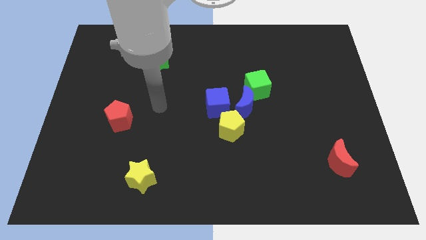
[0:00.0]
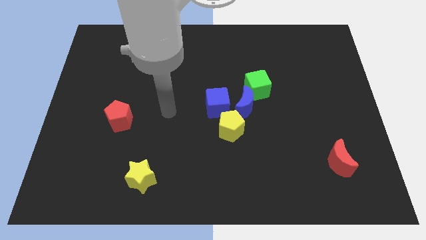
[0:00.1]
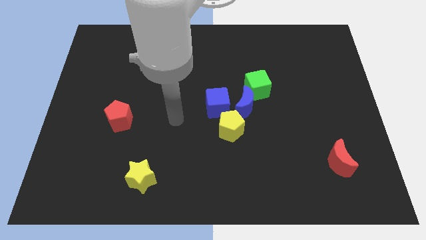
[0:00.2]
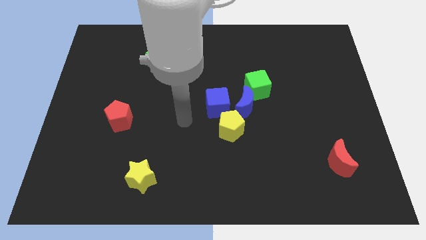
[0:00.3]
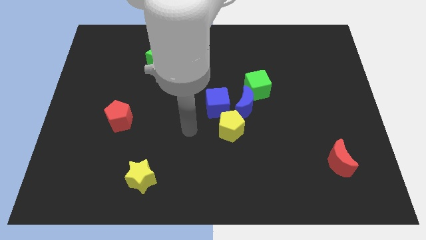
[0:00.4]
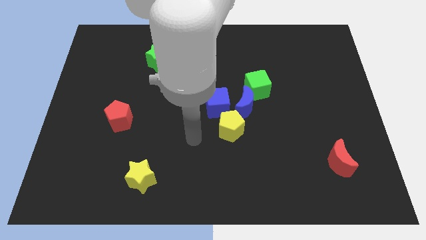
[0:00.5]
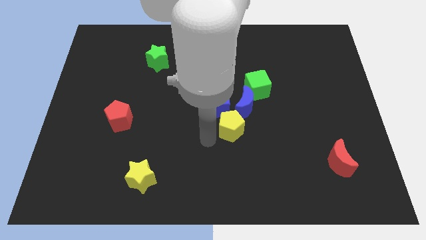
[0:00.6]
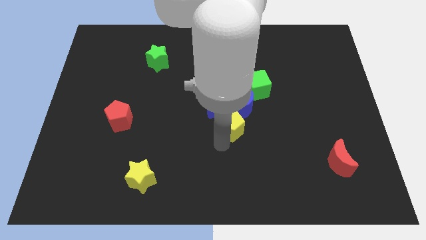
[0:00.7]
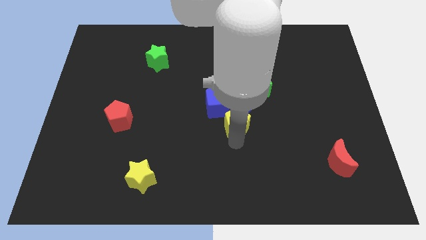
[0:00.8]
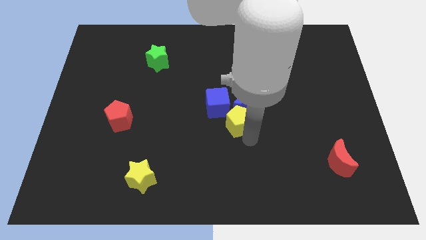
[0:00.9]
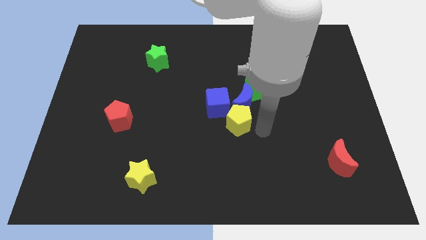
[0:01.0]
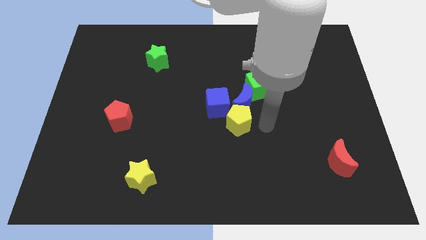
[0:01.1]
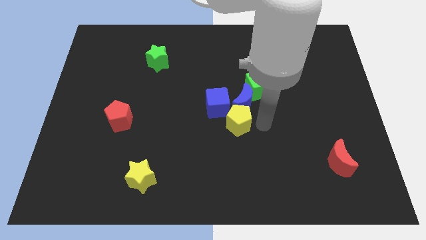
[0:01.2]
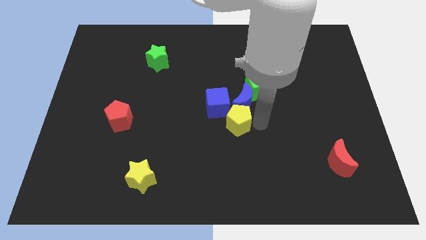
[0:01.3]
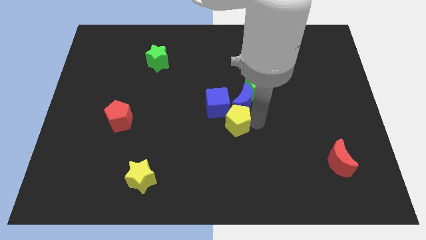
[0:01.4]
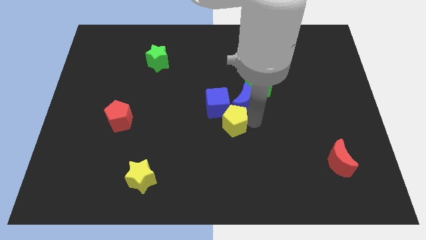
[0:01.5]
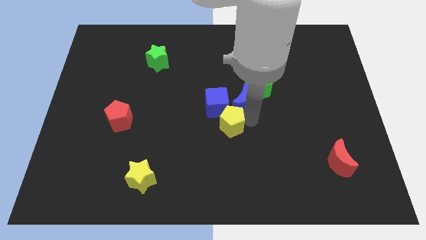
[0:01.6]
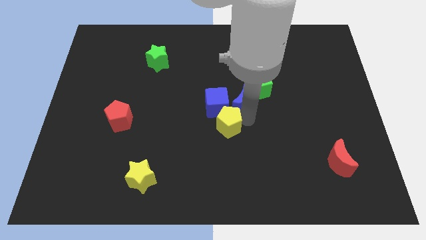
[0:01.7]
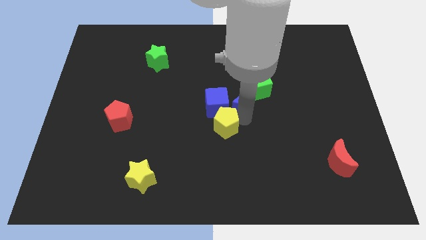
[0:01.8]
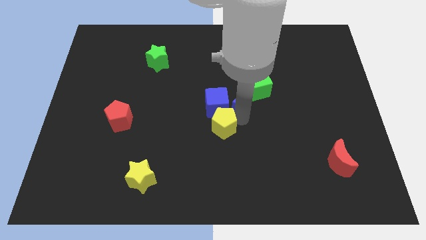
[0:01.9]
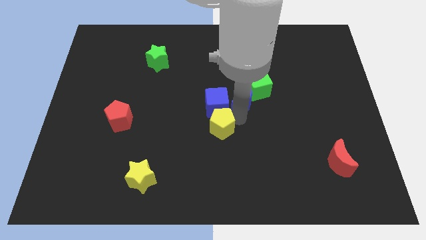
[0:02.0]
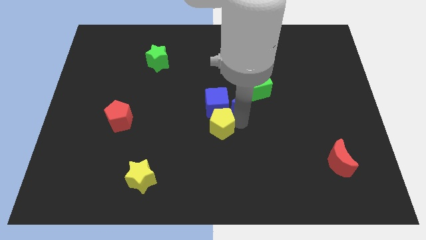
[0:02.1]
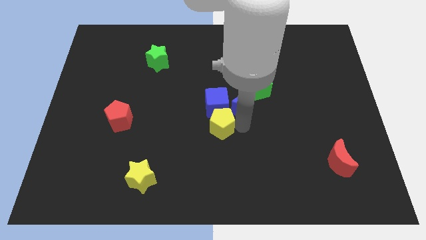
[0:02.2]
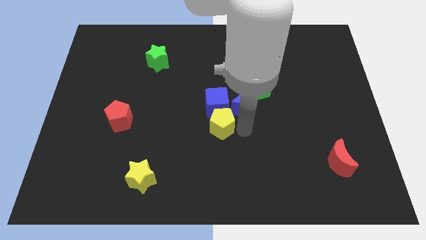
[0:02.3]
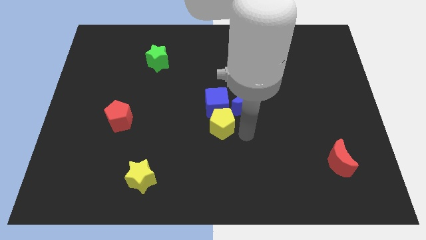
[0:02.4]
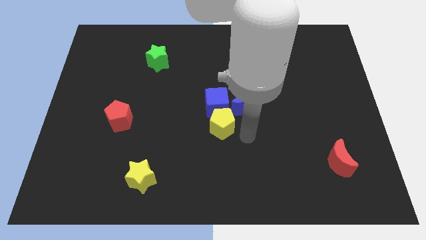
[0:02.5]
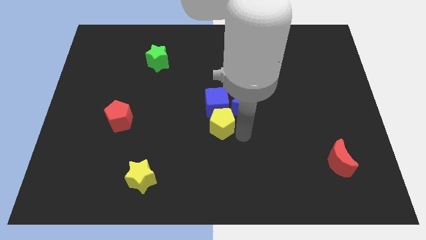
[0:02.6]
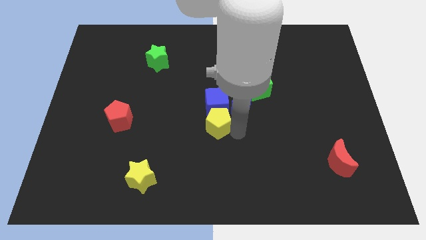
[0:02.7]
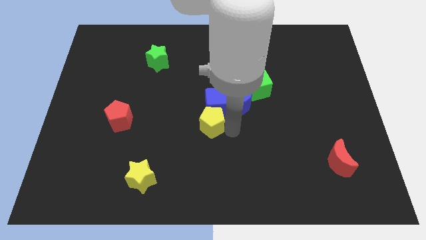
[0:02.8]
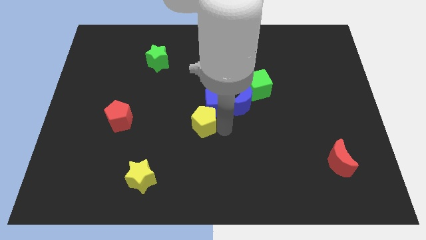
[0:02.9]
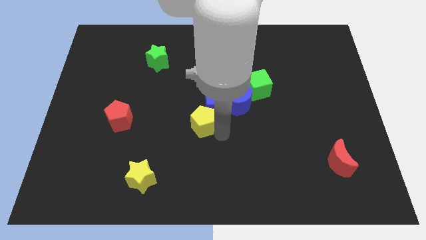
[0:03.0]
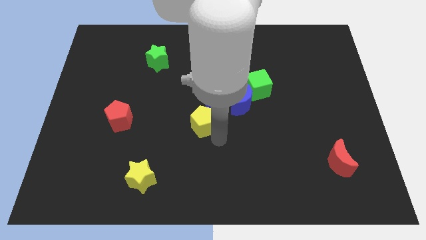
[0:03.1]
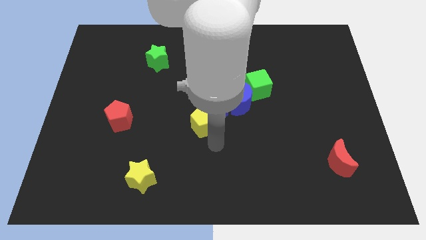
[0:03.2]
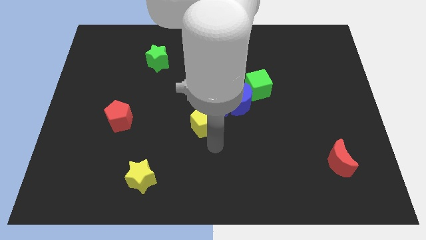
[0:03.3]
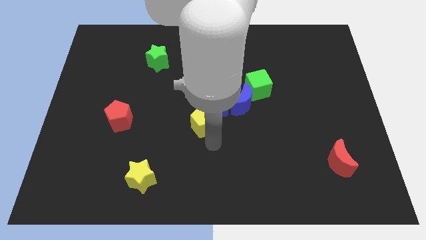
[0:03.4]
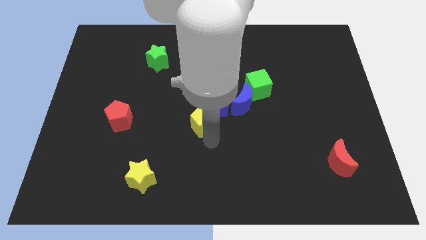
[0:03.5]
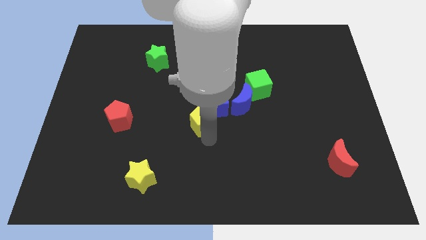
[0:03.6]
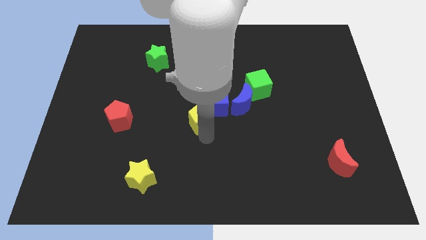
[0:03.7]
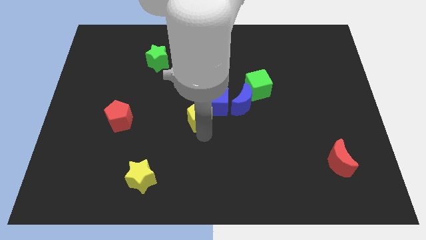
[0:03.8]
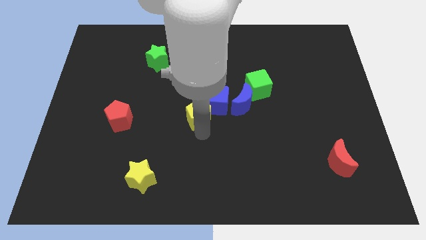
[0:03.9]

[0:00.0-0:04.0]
slightly push the yellow pentagon up and then left

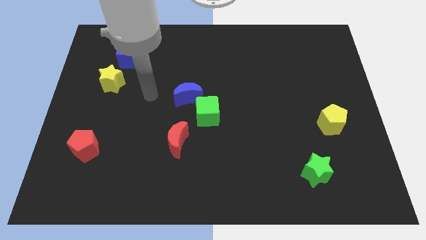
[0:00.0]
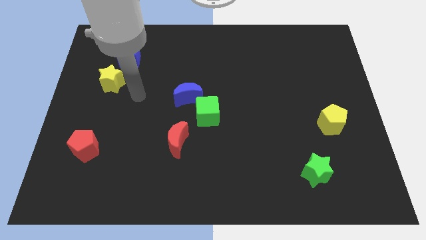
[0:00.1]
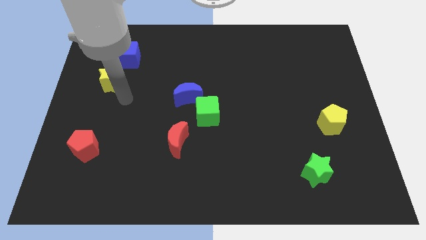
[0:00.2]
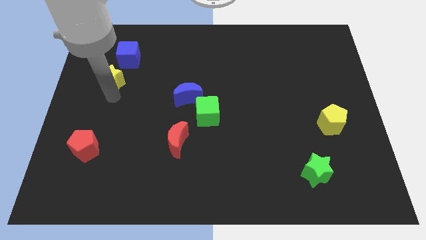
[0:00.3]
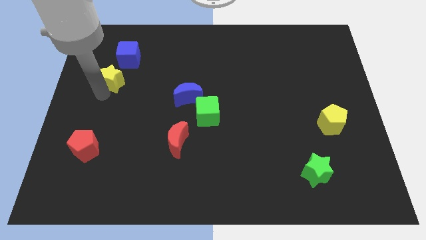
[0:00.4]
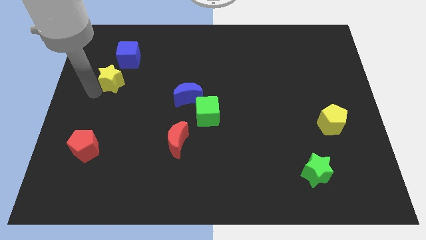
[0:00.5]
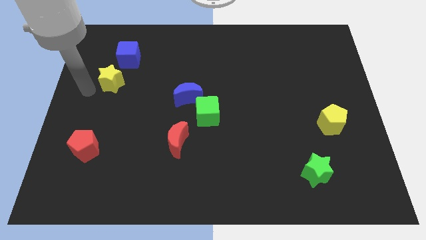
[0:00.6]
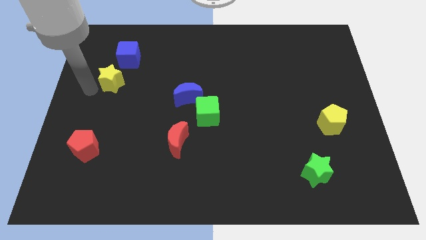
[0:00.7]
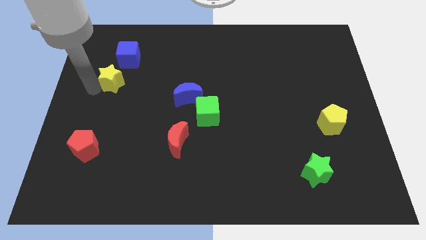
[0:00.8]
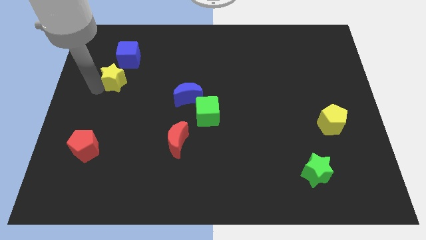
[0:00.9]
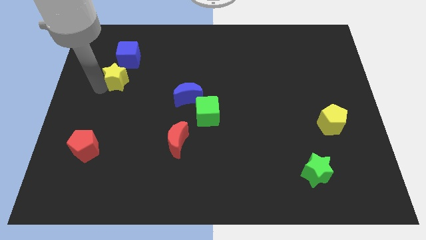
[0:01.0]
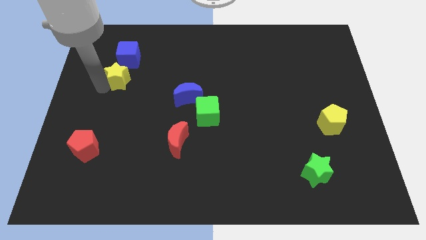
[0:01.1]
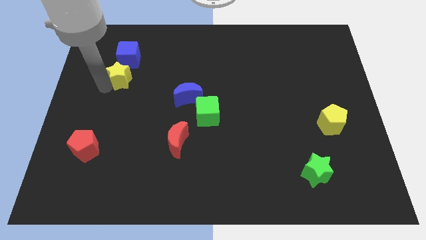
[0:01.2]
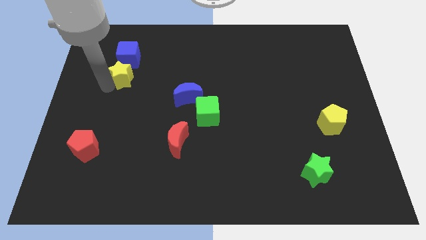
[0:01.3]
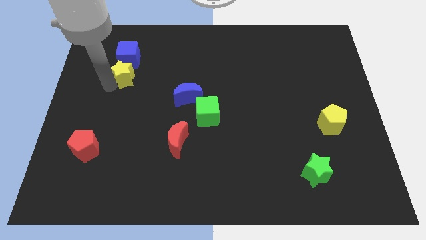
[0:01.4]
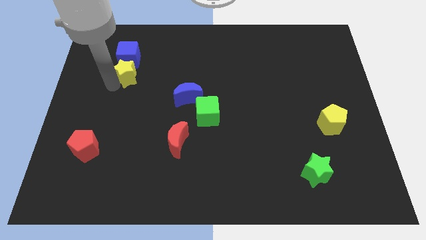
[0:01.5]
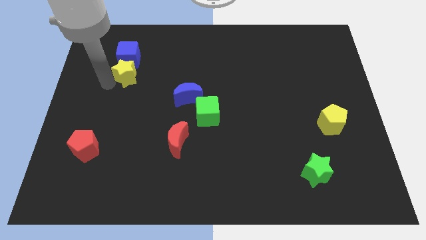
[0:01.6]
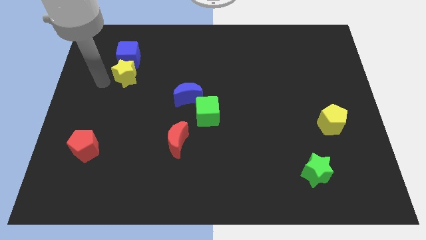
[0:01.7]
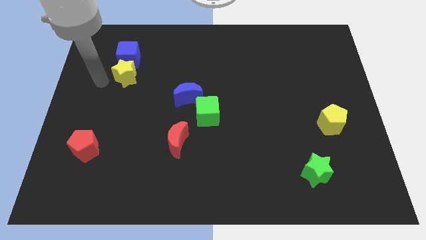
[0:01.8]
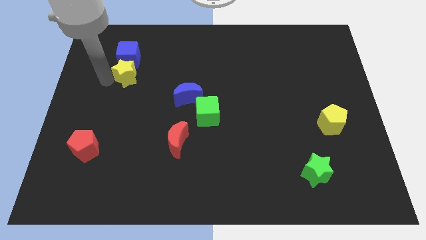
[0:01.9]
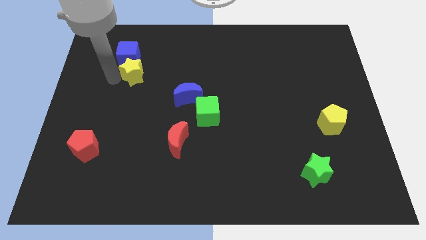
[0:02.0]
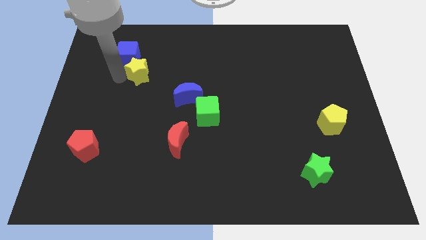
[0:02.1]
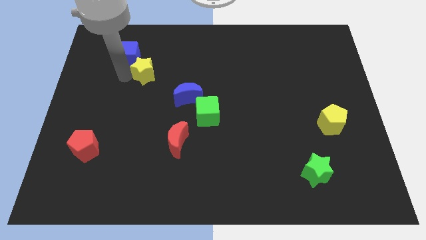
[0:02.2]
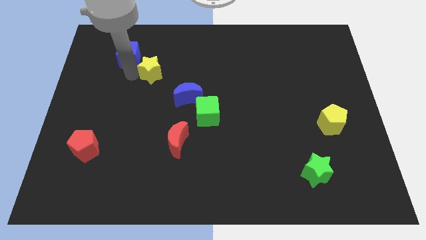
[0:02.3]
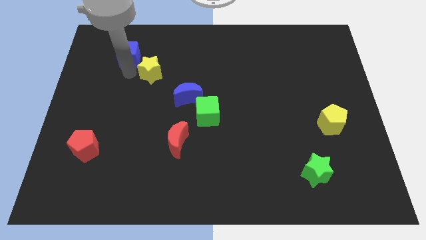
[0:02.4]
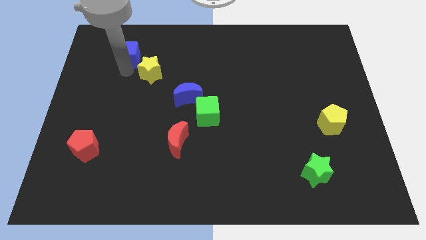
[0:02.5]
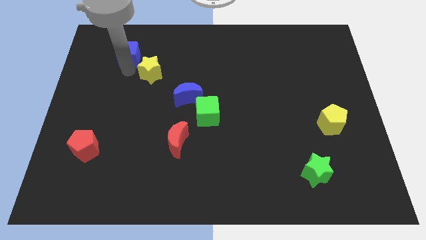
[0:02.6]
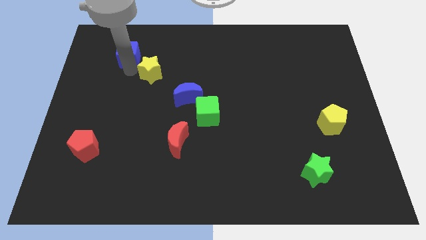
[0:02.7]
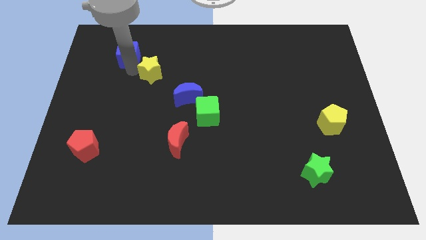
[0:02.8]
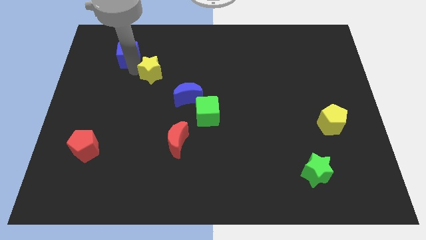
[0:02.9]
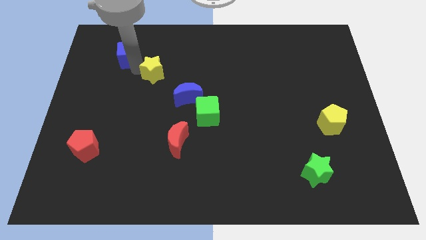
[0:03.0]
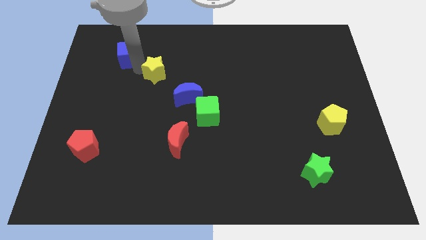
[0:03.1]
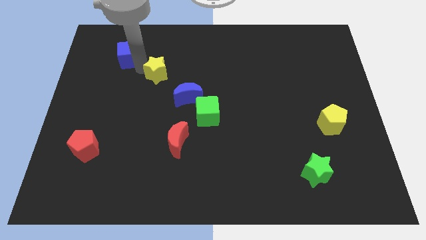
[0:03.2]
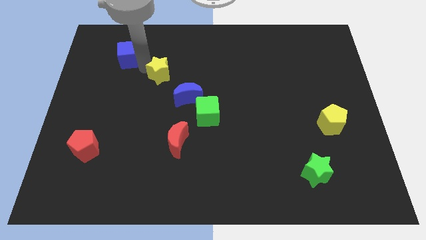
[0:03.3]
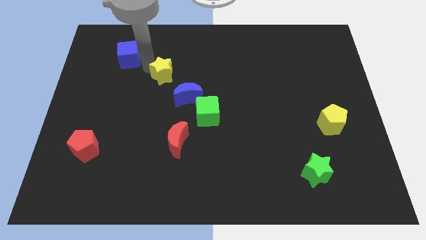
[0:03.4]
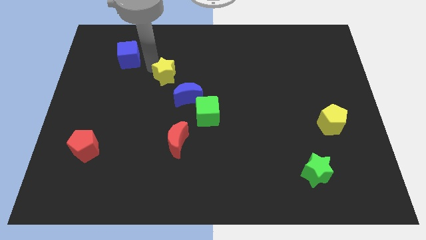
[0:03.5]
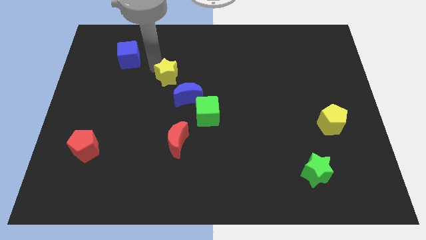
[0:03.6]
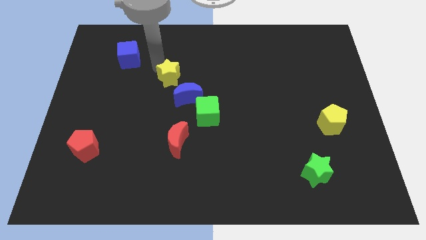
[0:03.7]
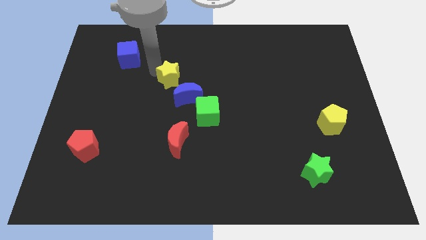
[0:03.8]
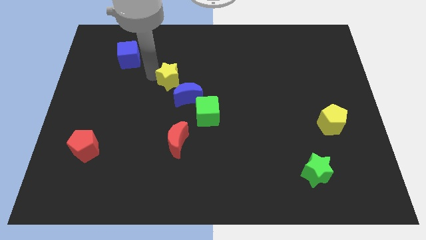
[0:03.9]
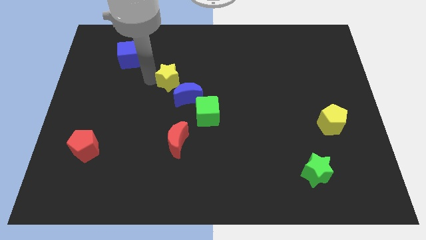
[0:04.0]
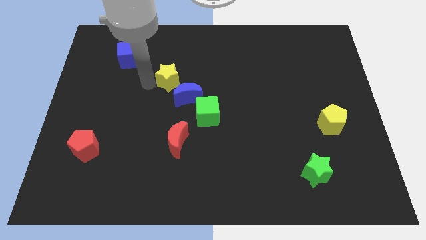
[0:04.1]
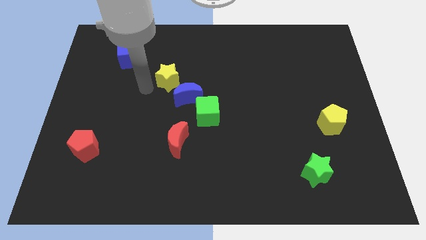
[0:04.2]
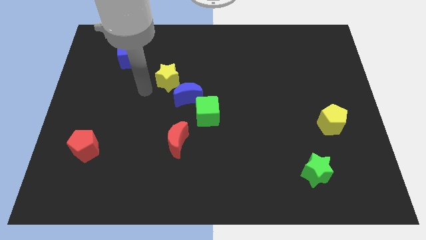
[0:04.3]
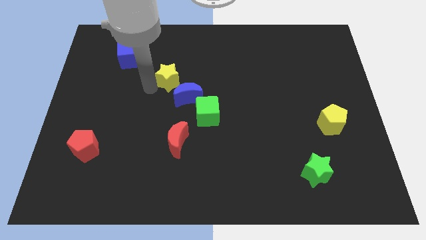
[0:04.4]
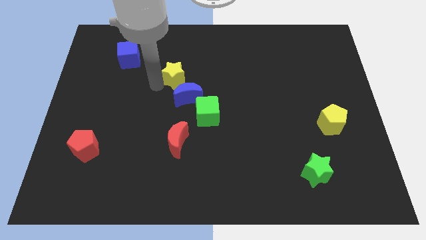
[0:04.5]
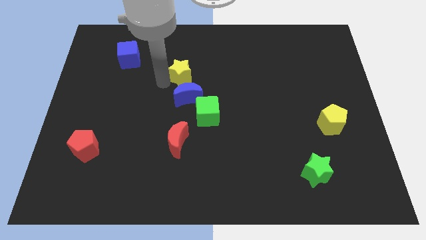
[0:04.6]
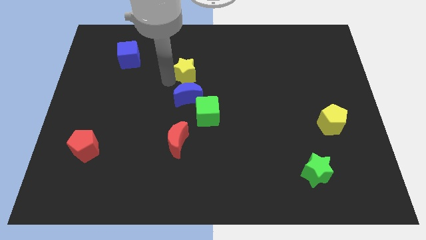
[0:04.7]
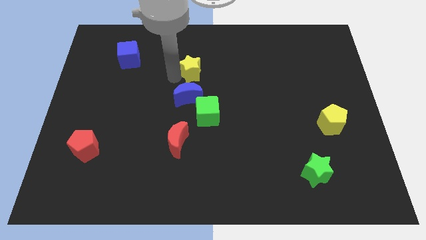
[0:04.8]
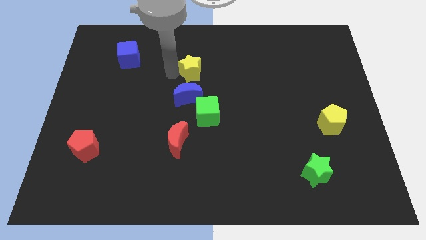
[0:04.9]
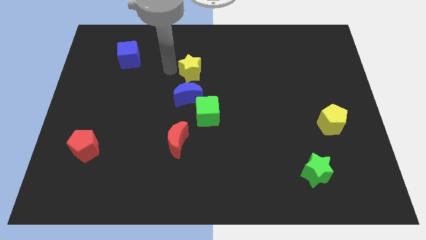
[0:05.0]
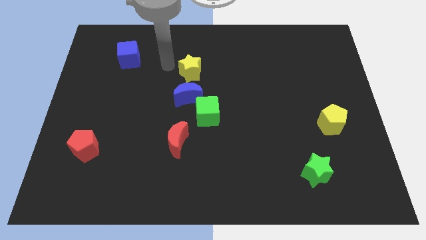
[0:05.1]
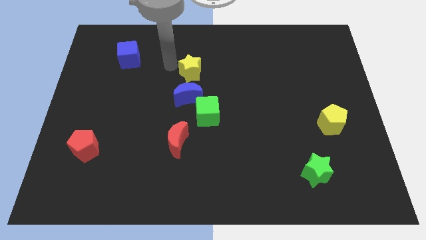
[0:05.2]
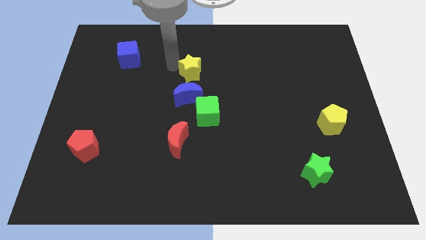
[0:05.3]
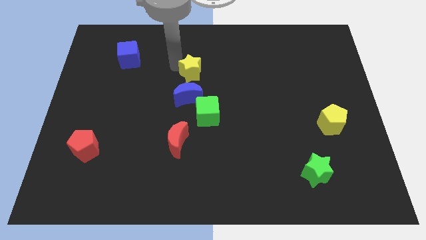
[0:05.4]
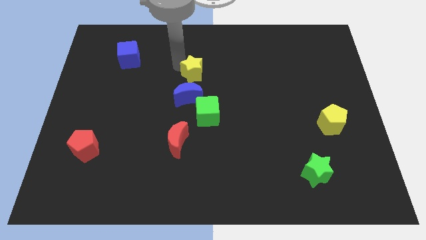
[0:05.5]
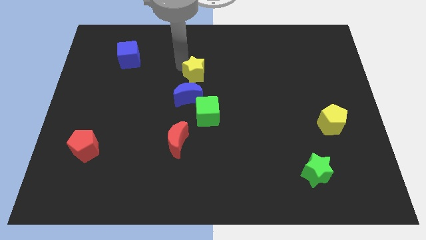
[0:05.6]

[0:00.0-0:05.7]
push the yellow star to the right
